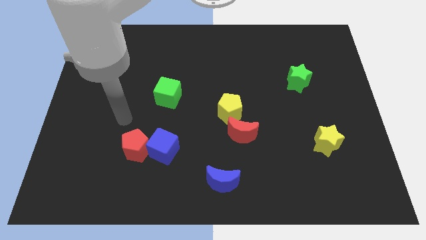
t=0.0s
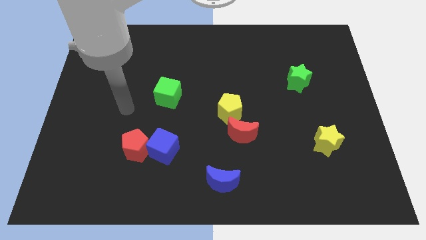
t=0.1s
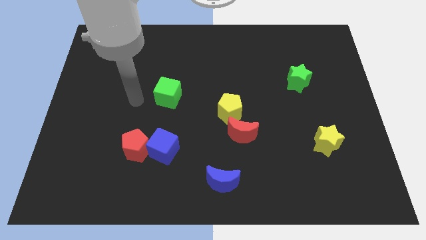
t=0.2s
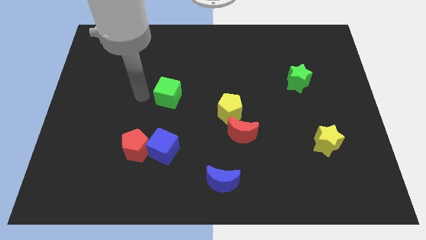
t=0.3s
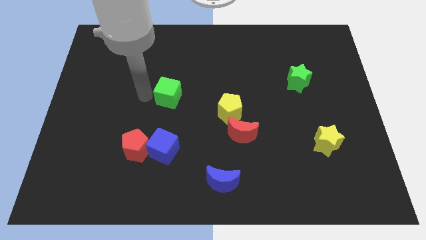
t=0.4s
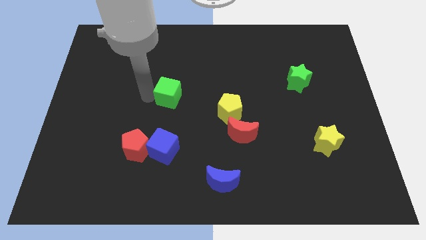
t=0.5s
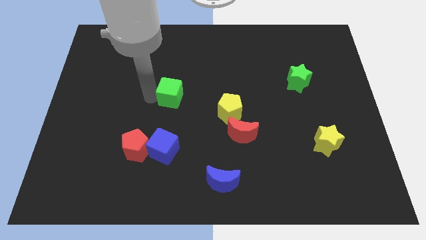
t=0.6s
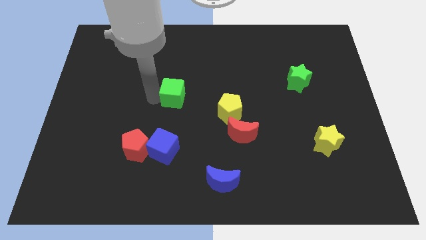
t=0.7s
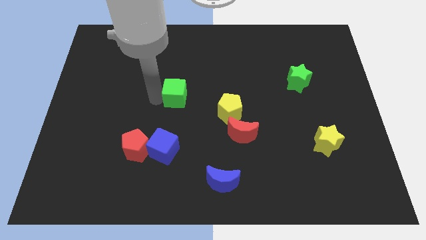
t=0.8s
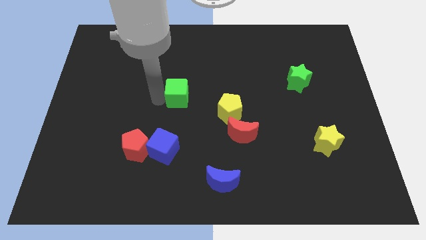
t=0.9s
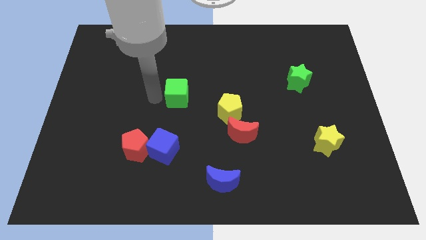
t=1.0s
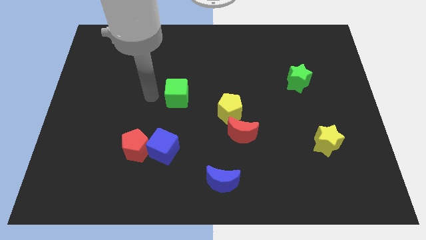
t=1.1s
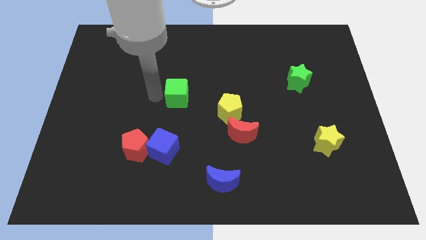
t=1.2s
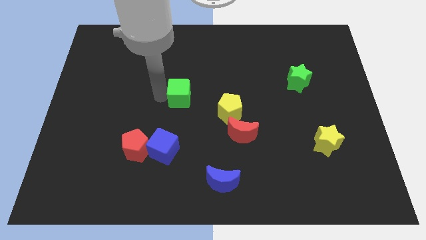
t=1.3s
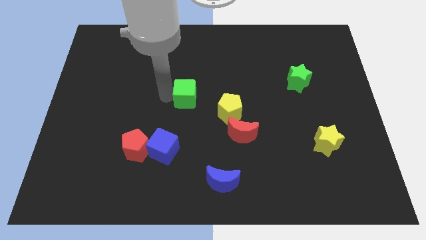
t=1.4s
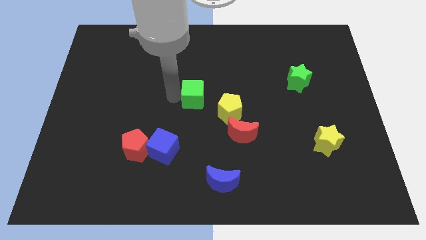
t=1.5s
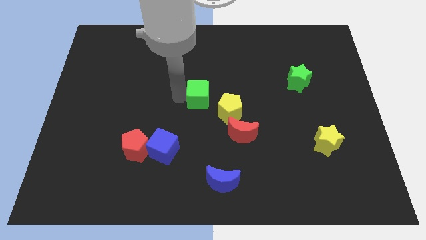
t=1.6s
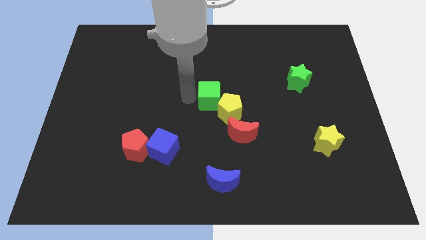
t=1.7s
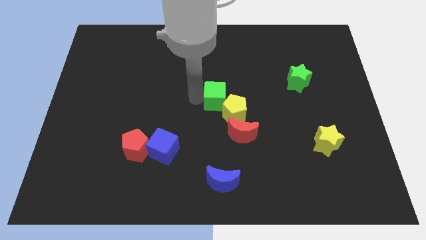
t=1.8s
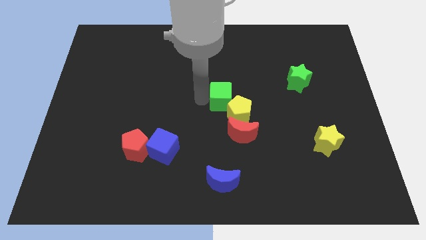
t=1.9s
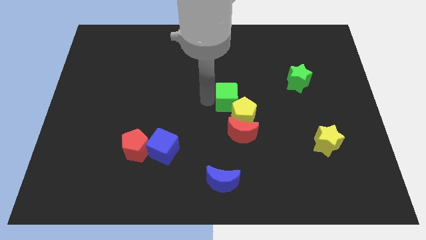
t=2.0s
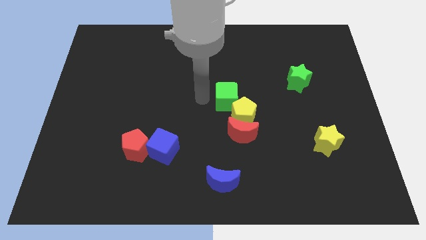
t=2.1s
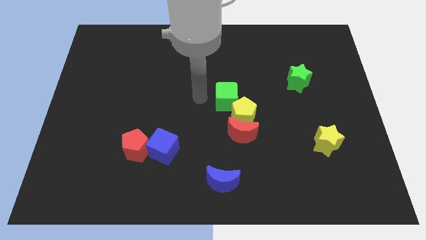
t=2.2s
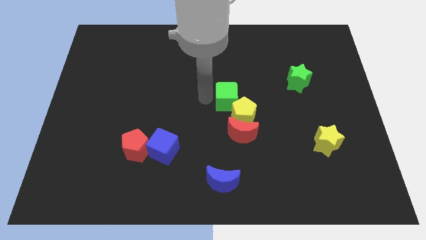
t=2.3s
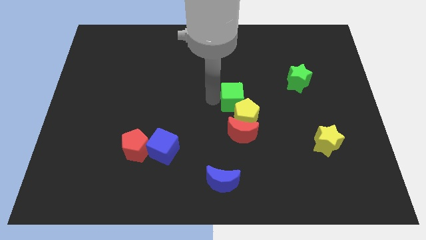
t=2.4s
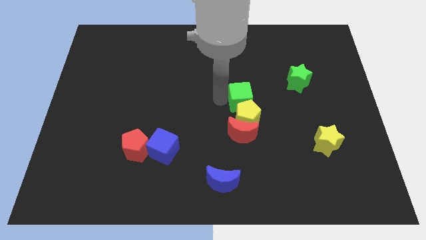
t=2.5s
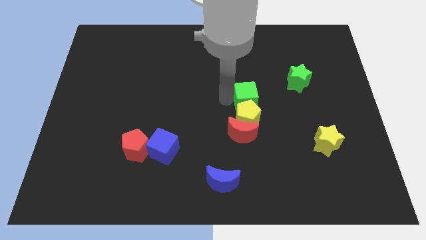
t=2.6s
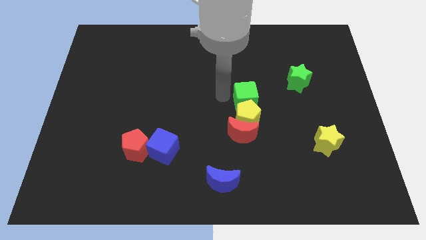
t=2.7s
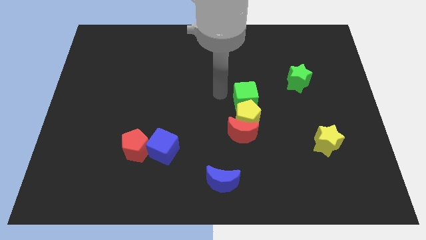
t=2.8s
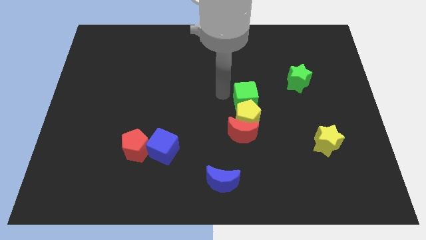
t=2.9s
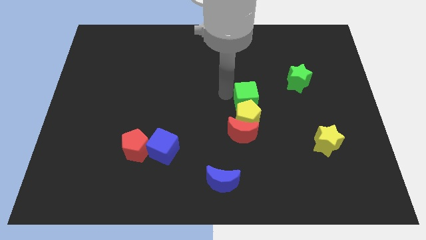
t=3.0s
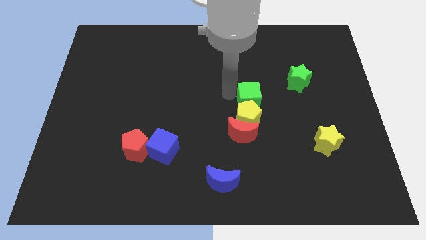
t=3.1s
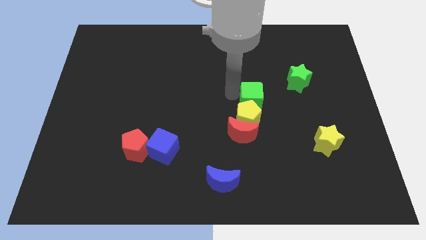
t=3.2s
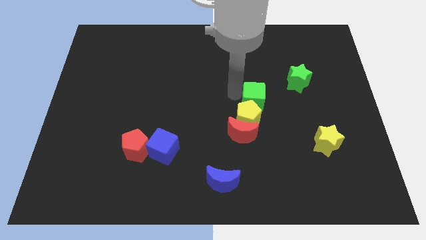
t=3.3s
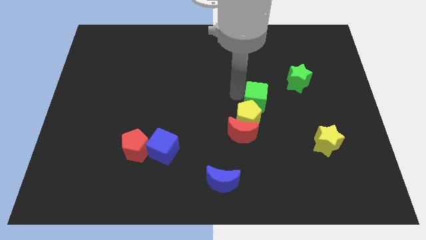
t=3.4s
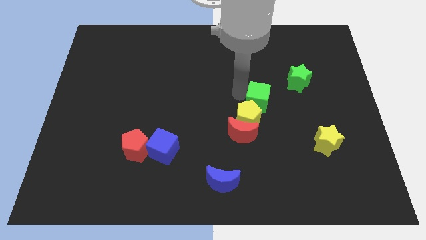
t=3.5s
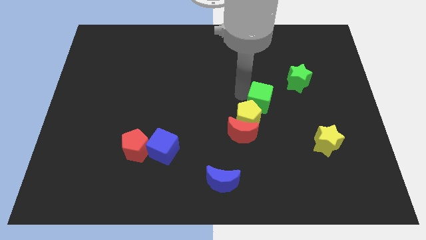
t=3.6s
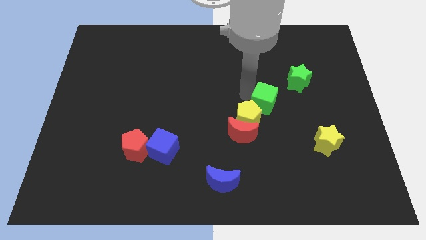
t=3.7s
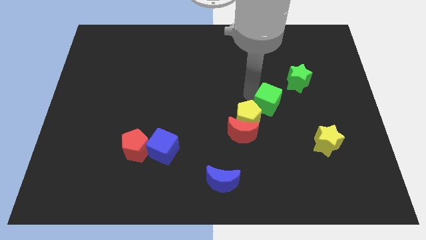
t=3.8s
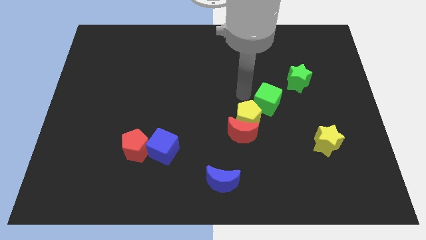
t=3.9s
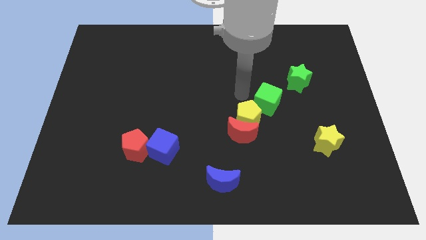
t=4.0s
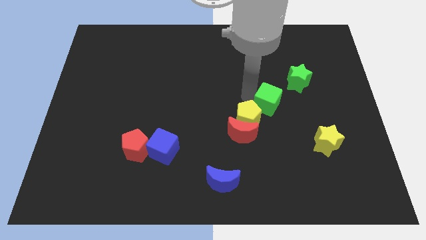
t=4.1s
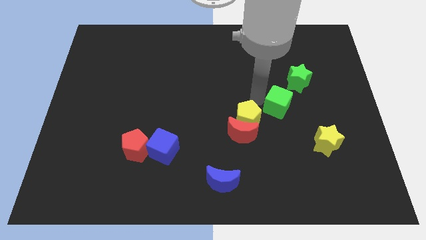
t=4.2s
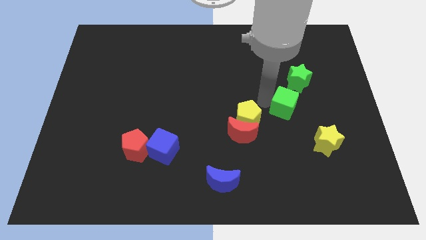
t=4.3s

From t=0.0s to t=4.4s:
put the green cube to the bottom side of the green star

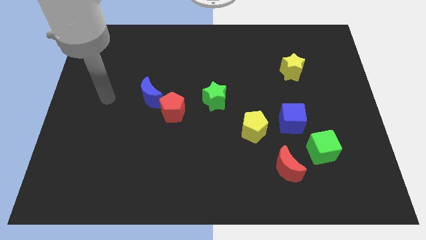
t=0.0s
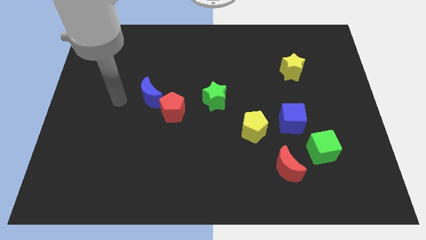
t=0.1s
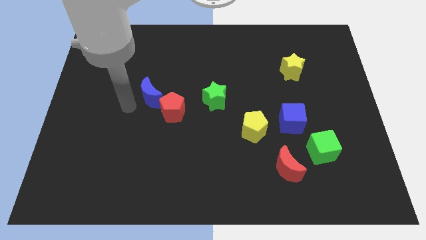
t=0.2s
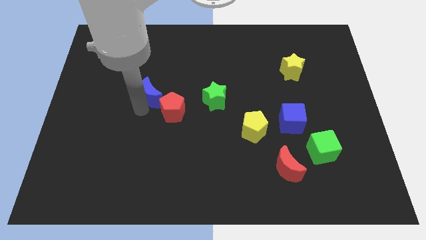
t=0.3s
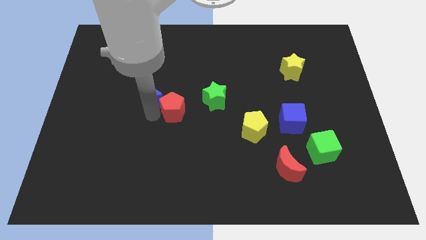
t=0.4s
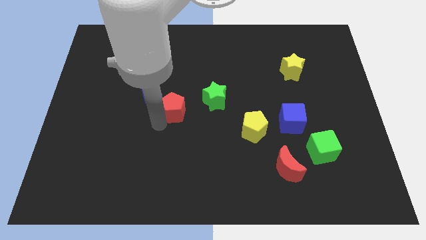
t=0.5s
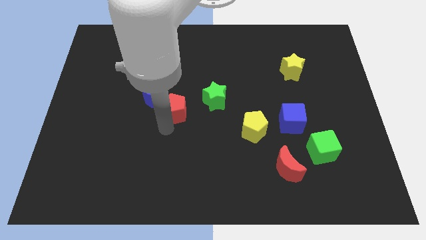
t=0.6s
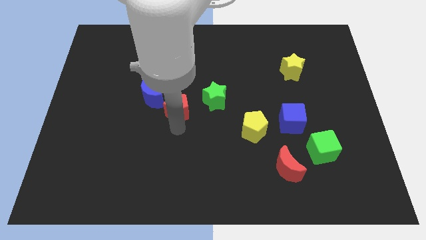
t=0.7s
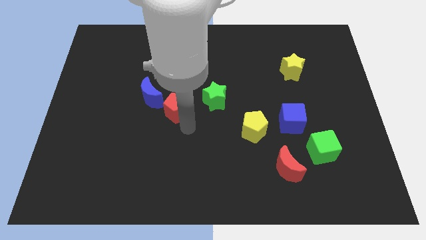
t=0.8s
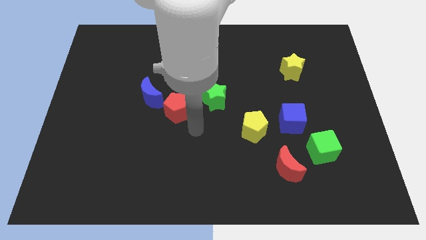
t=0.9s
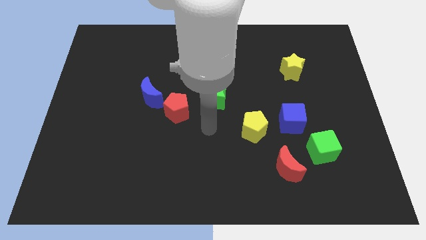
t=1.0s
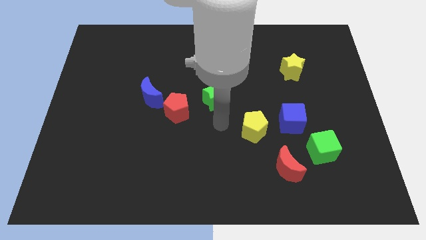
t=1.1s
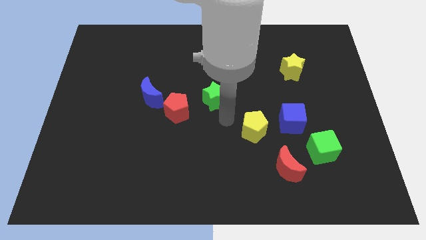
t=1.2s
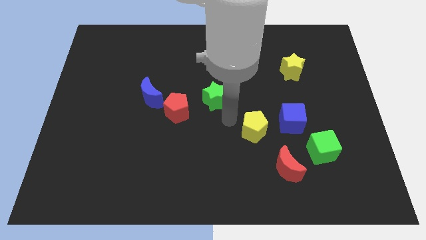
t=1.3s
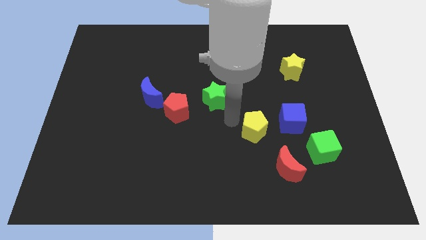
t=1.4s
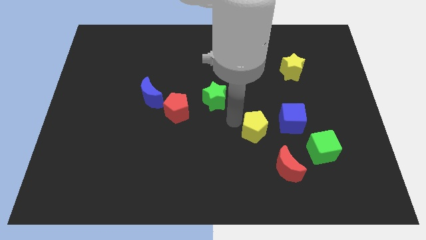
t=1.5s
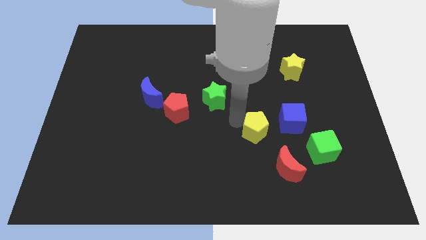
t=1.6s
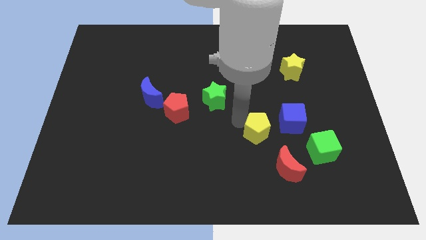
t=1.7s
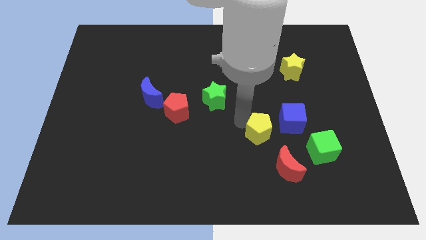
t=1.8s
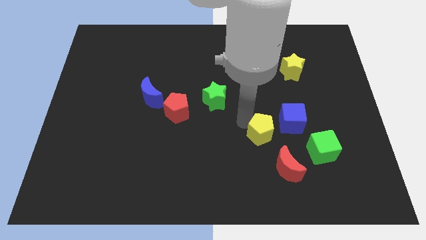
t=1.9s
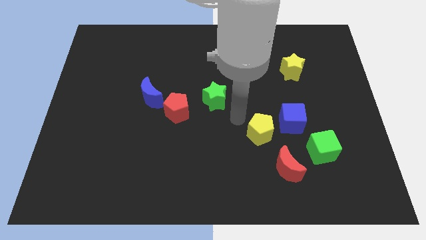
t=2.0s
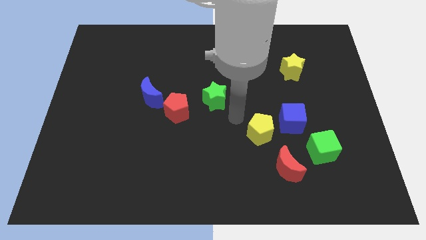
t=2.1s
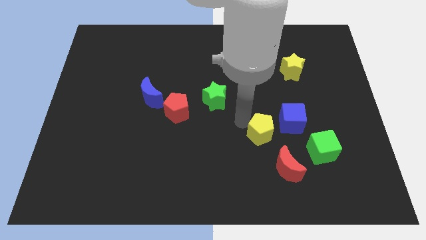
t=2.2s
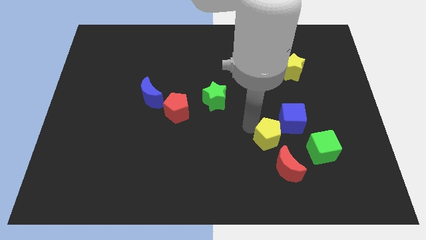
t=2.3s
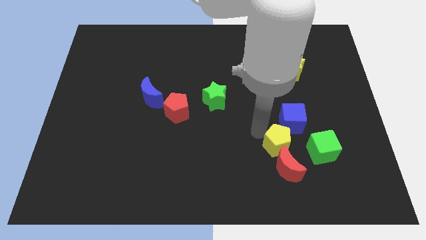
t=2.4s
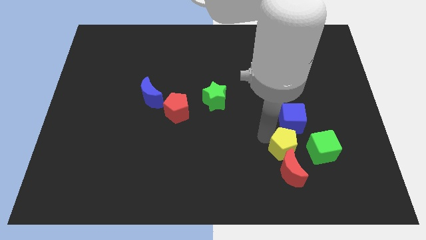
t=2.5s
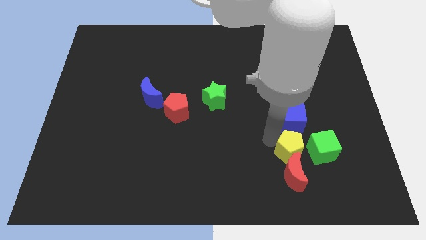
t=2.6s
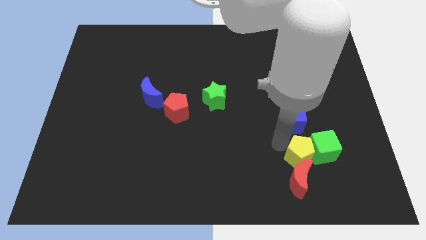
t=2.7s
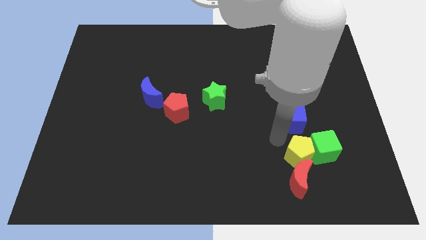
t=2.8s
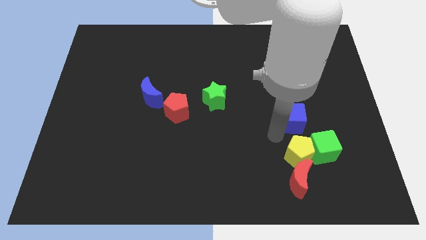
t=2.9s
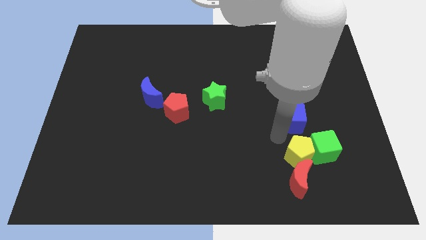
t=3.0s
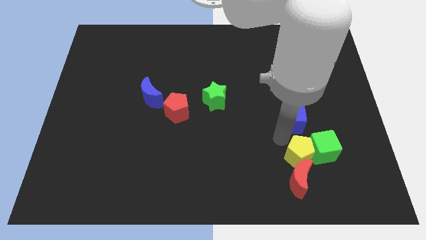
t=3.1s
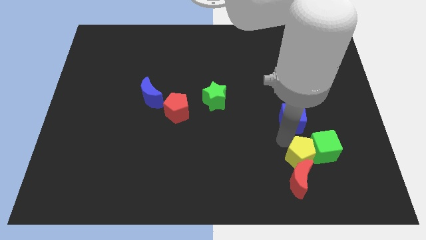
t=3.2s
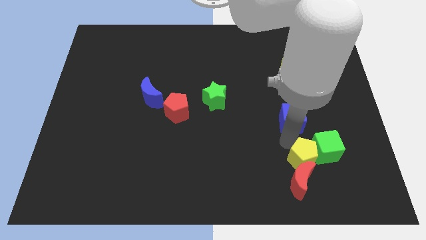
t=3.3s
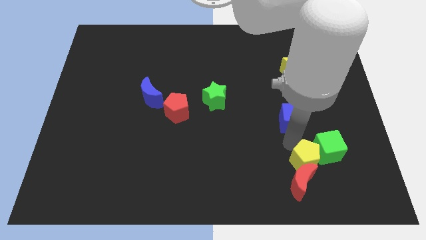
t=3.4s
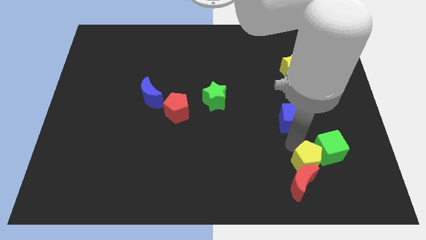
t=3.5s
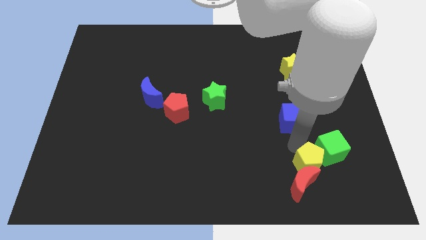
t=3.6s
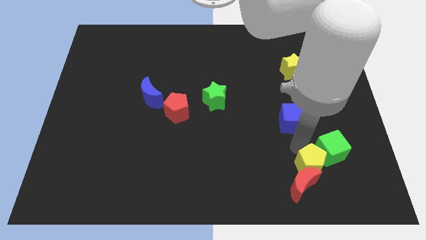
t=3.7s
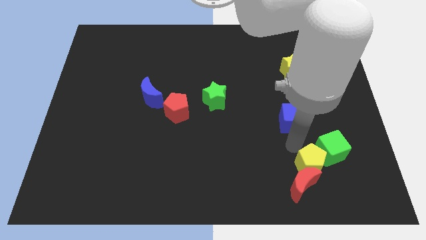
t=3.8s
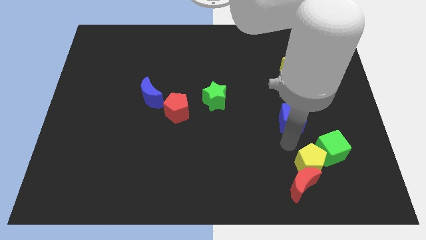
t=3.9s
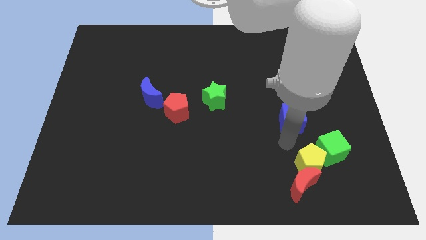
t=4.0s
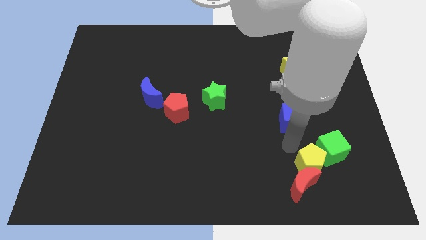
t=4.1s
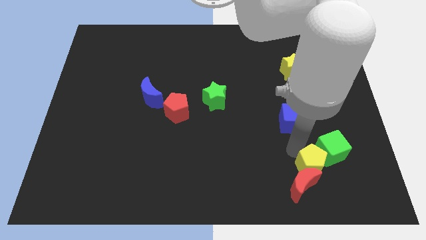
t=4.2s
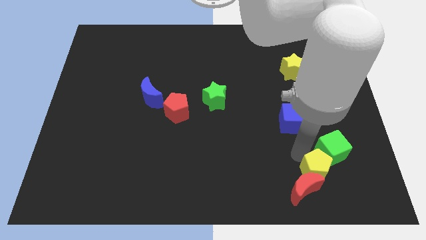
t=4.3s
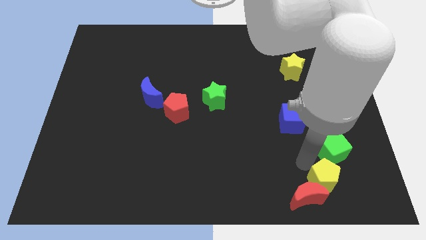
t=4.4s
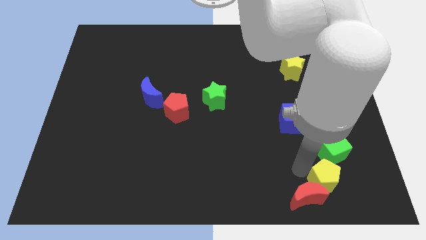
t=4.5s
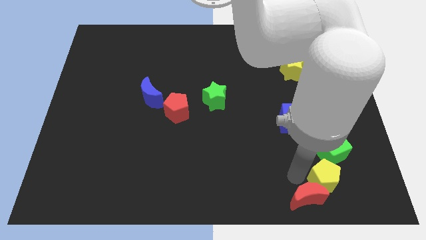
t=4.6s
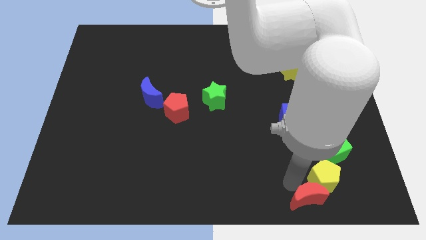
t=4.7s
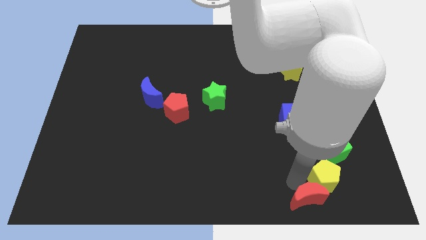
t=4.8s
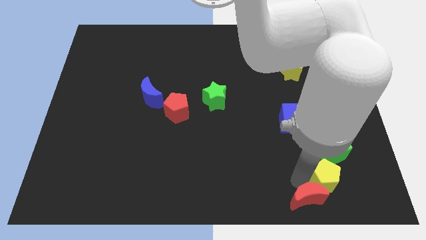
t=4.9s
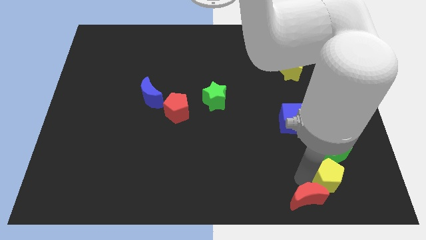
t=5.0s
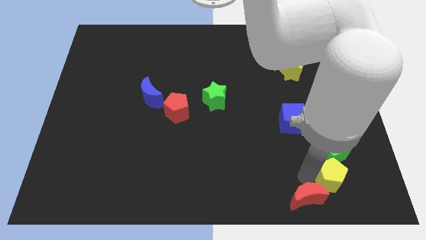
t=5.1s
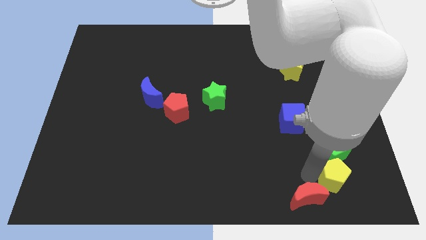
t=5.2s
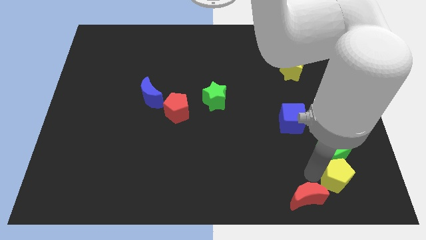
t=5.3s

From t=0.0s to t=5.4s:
move the yellow pentagon to the bottom right of the green cube
